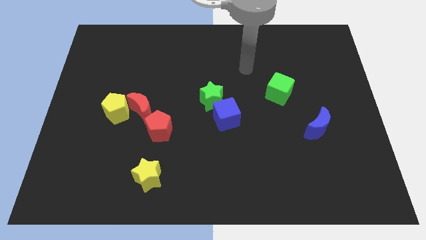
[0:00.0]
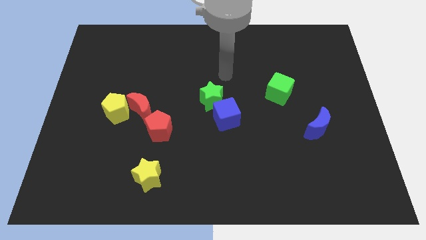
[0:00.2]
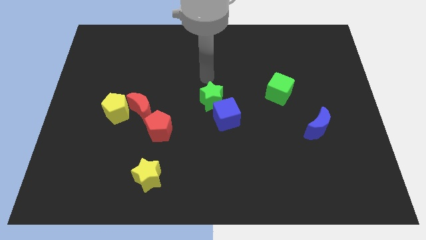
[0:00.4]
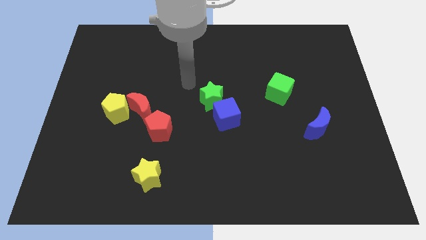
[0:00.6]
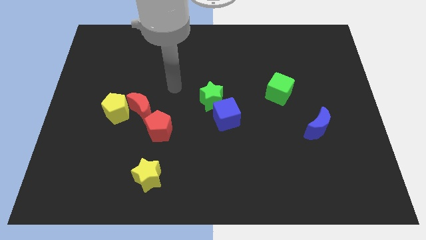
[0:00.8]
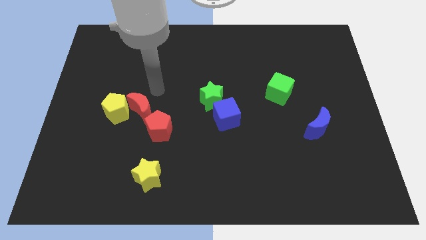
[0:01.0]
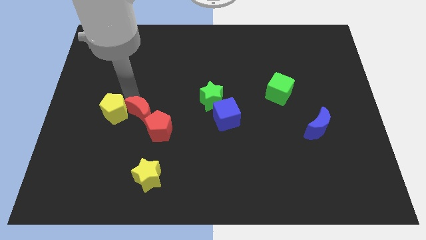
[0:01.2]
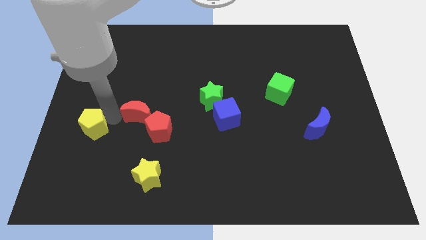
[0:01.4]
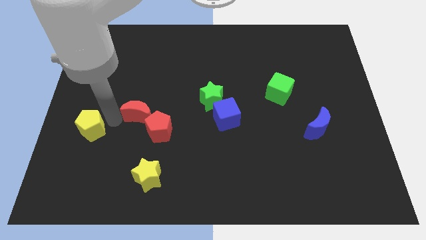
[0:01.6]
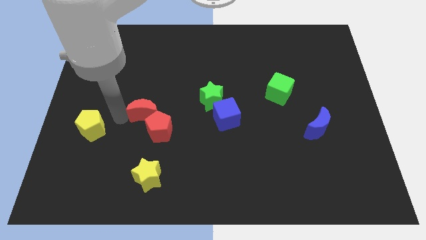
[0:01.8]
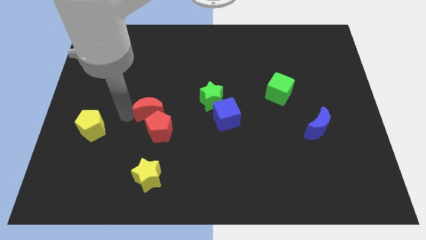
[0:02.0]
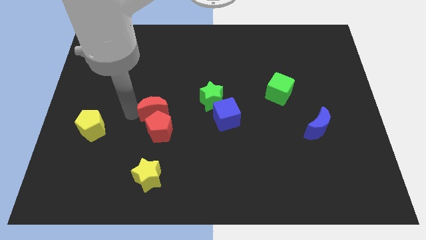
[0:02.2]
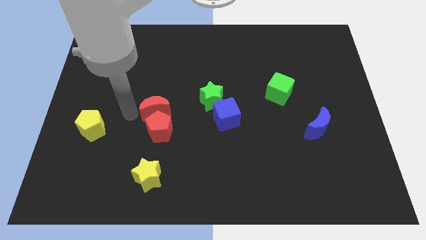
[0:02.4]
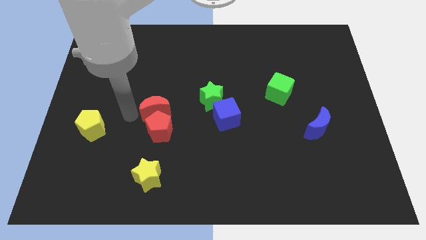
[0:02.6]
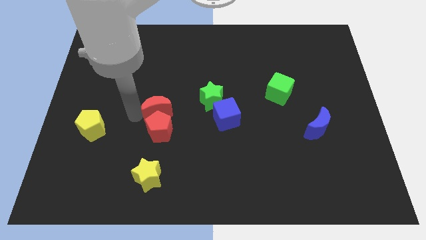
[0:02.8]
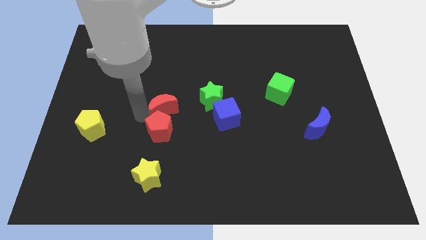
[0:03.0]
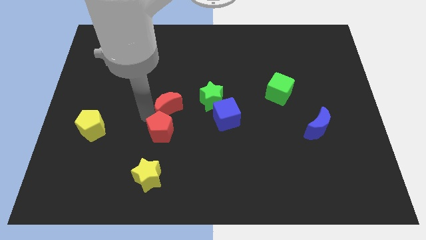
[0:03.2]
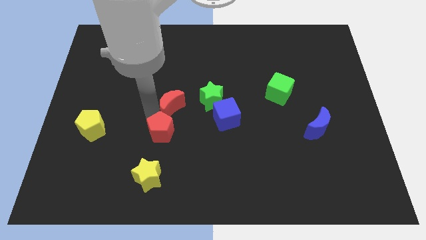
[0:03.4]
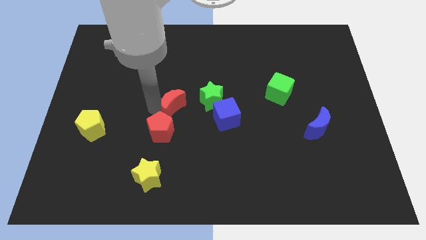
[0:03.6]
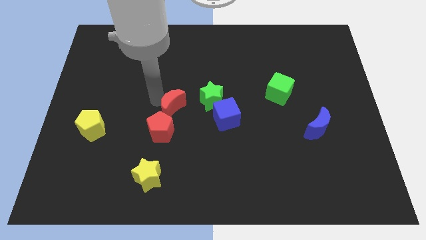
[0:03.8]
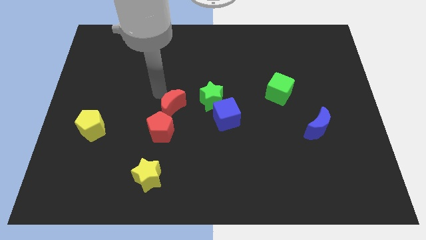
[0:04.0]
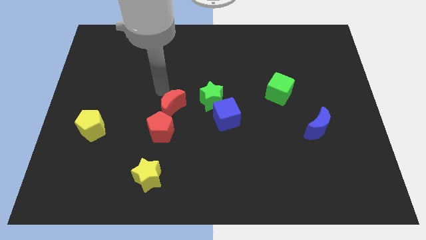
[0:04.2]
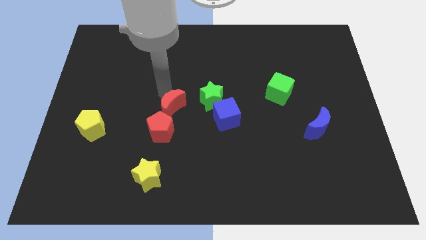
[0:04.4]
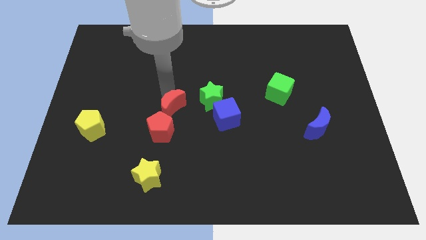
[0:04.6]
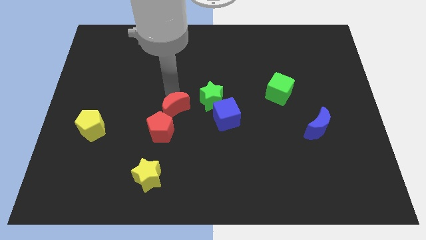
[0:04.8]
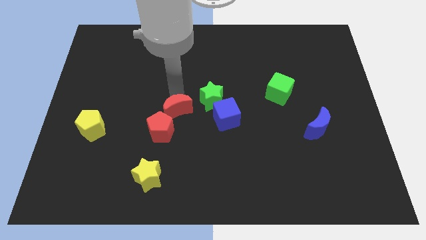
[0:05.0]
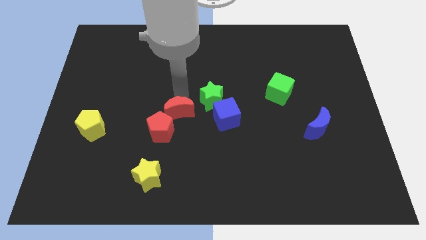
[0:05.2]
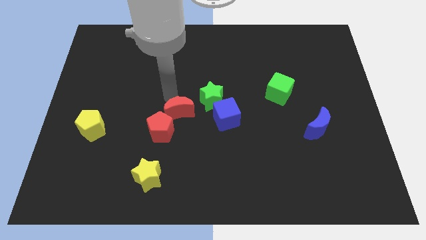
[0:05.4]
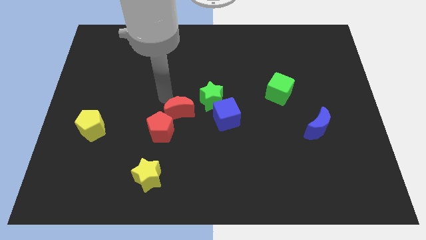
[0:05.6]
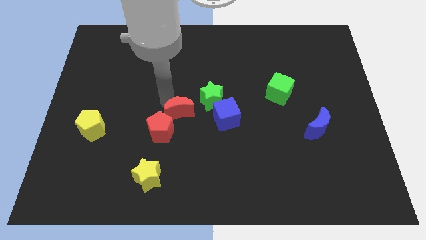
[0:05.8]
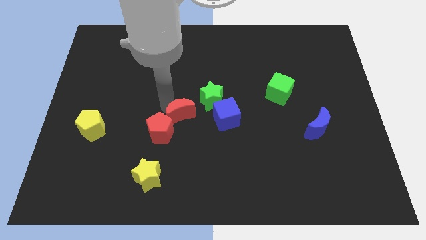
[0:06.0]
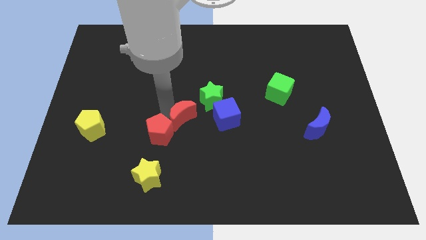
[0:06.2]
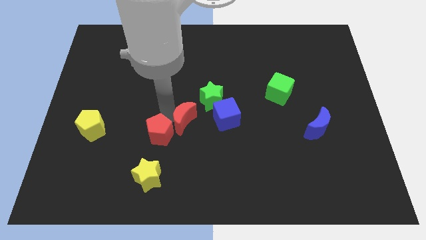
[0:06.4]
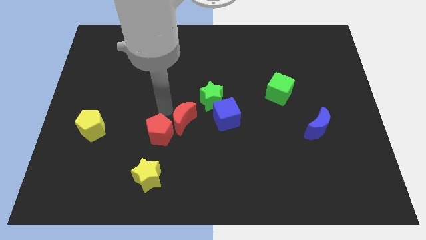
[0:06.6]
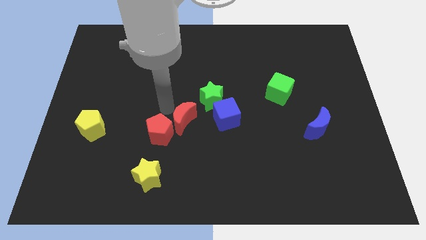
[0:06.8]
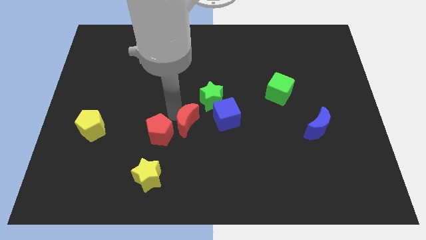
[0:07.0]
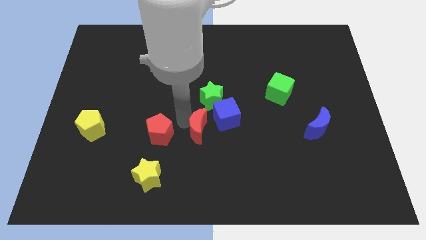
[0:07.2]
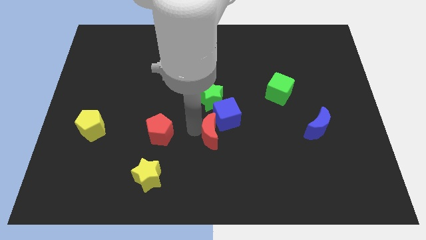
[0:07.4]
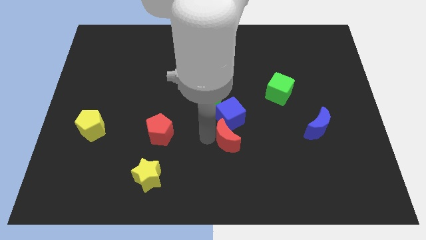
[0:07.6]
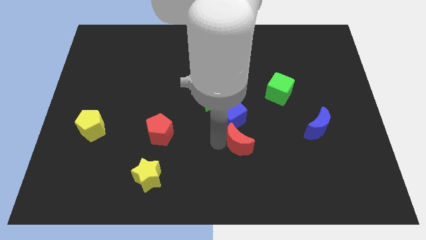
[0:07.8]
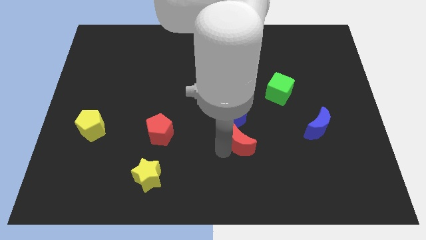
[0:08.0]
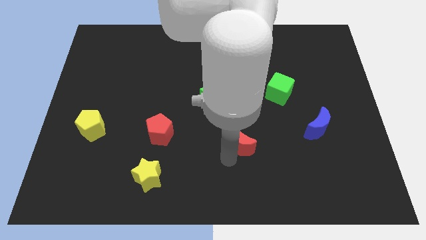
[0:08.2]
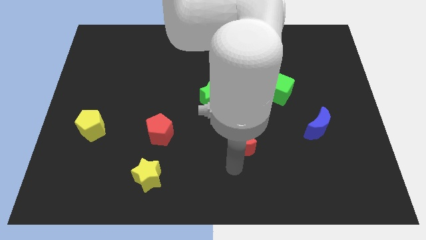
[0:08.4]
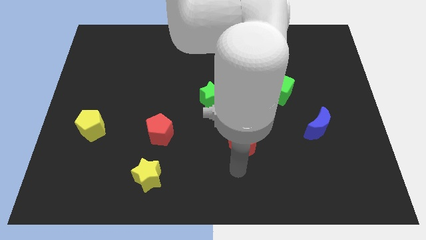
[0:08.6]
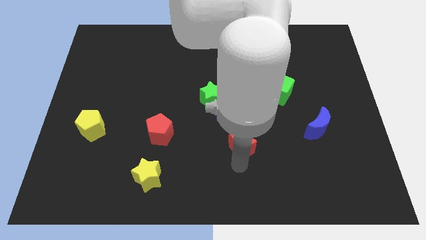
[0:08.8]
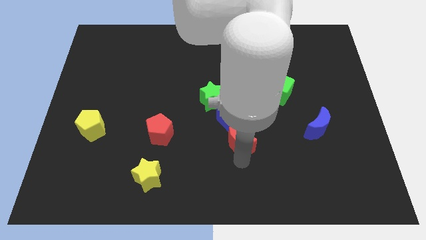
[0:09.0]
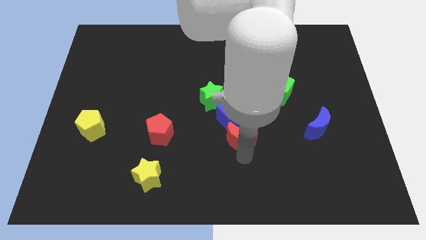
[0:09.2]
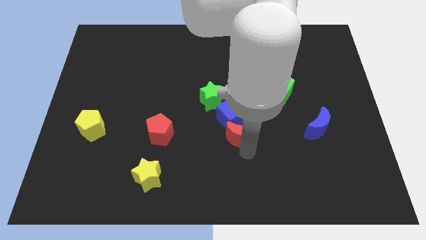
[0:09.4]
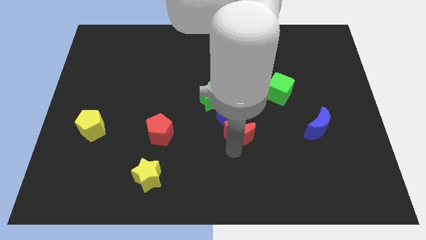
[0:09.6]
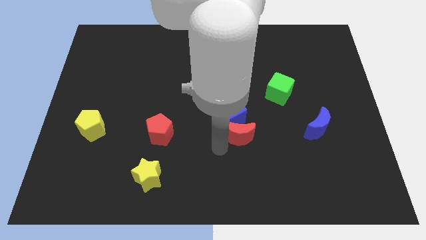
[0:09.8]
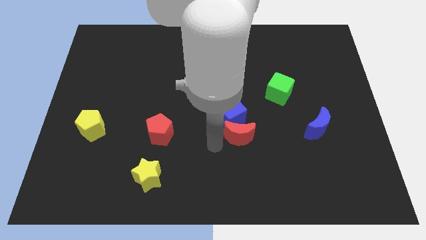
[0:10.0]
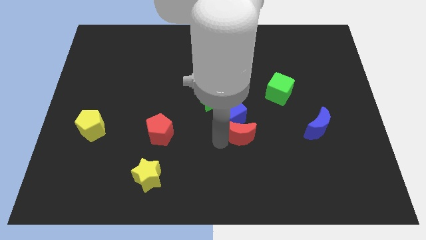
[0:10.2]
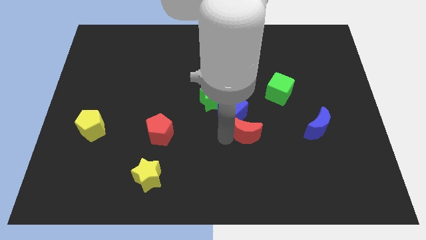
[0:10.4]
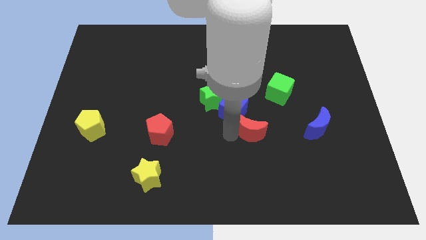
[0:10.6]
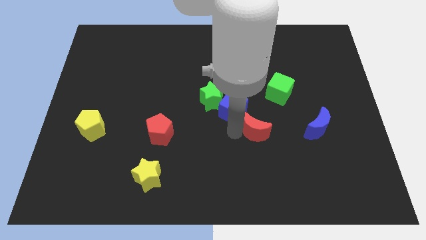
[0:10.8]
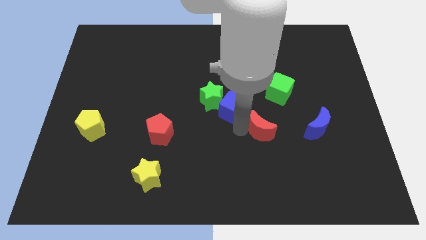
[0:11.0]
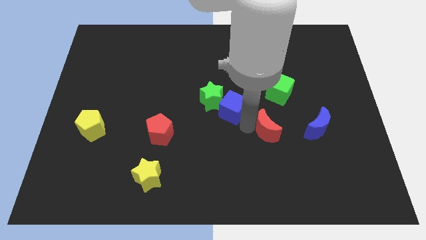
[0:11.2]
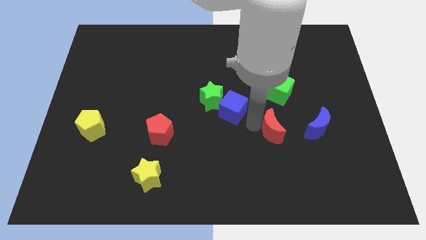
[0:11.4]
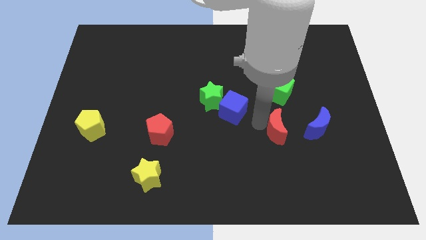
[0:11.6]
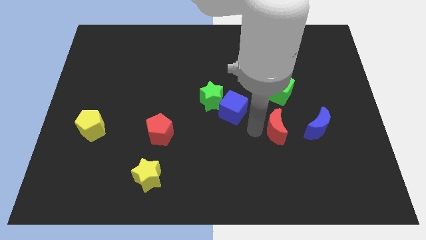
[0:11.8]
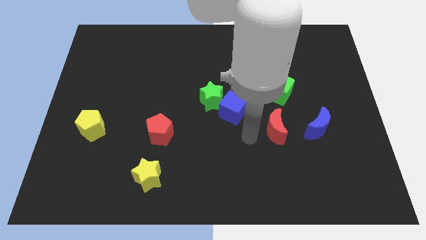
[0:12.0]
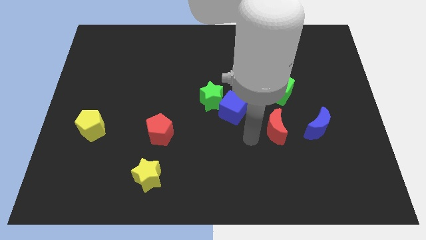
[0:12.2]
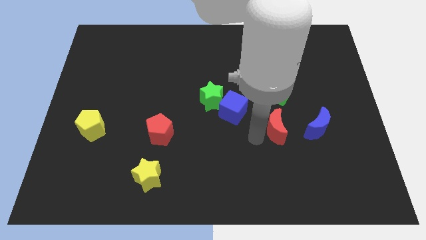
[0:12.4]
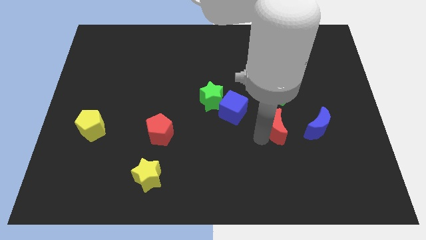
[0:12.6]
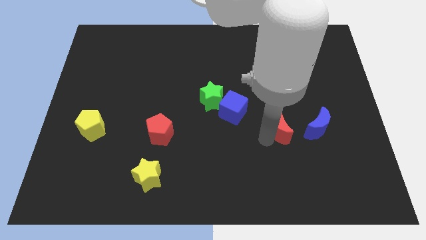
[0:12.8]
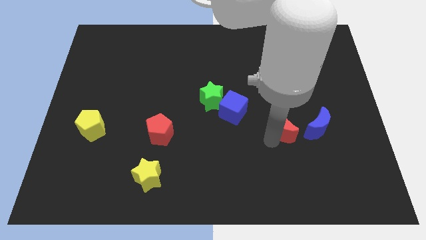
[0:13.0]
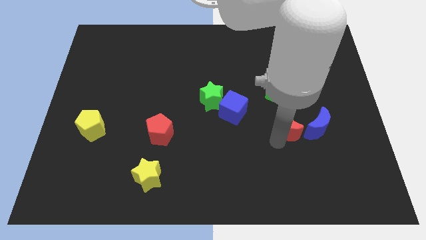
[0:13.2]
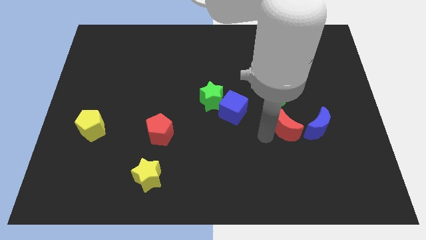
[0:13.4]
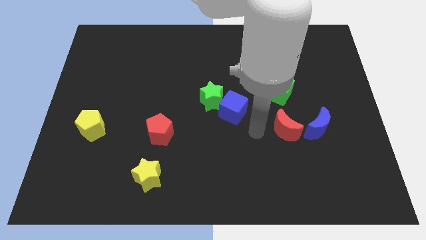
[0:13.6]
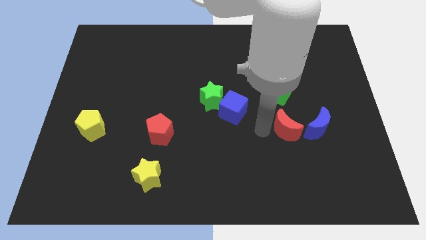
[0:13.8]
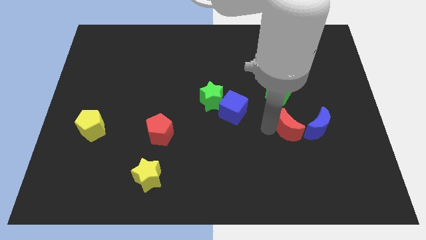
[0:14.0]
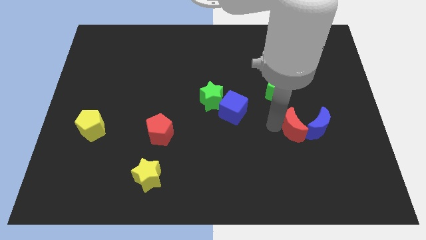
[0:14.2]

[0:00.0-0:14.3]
push the red moon towards the blue moon
